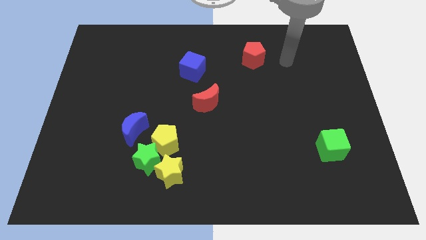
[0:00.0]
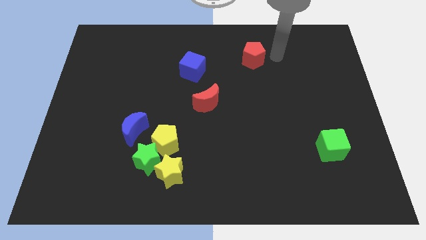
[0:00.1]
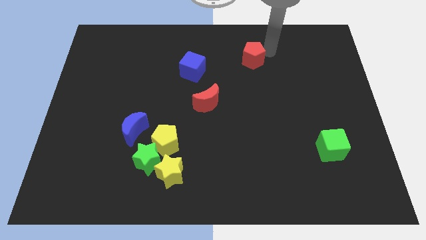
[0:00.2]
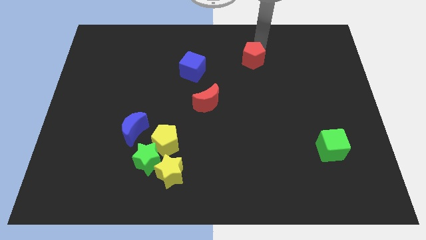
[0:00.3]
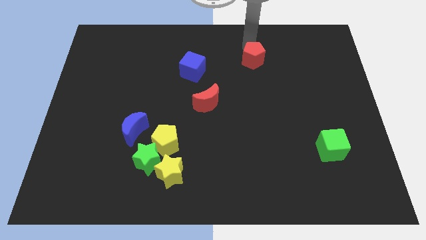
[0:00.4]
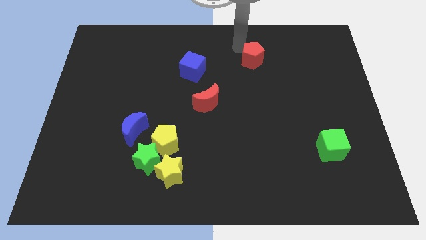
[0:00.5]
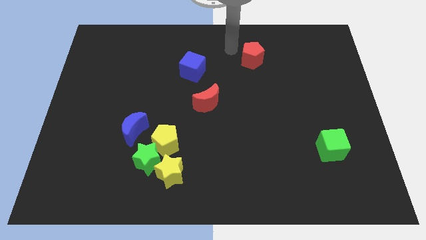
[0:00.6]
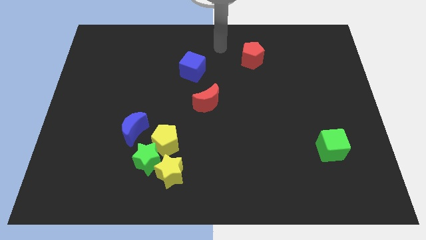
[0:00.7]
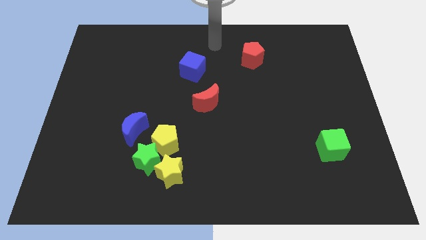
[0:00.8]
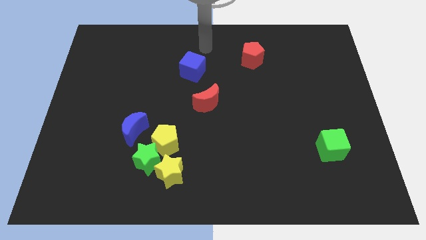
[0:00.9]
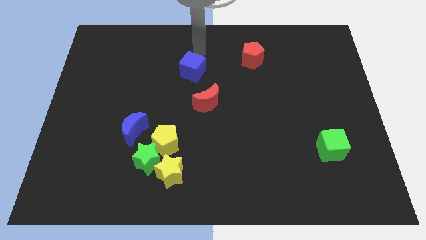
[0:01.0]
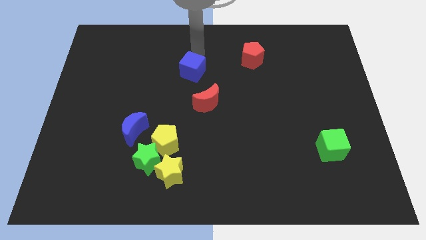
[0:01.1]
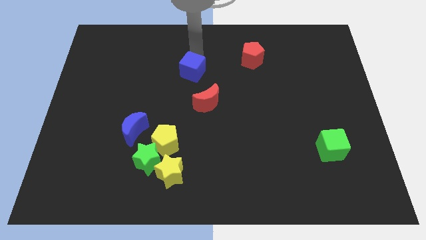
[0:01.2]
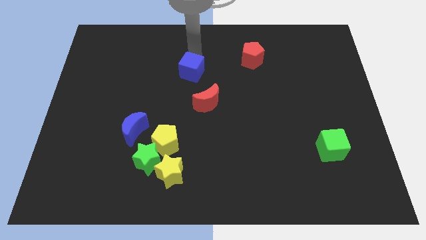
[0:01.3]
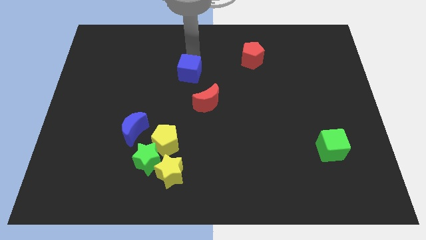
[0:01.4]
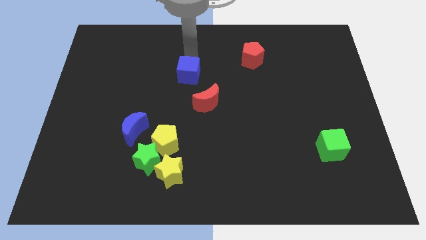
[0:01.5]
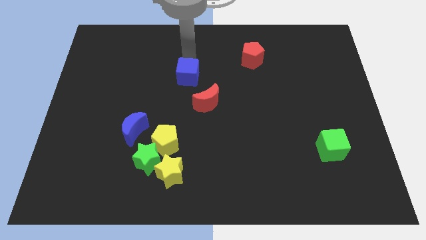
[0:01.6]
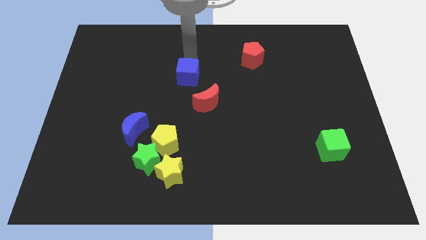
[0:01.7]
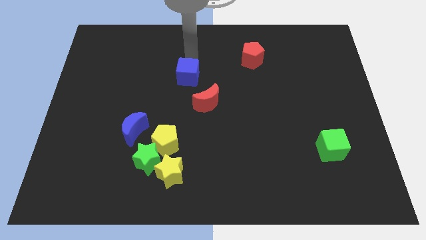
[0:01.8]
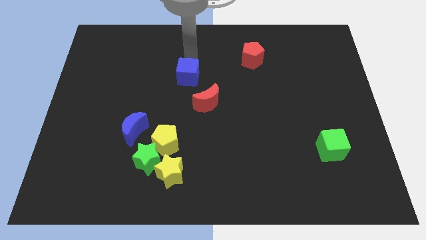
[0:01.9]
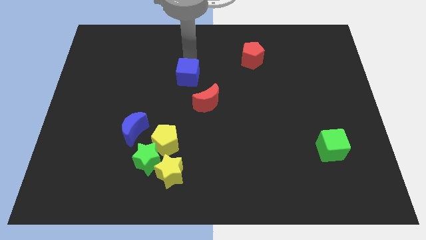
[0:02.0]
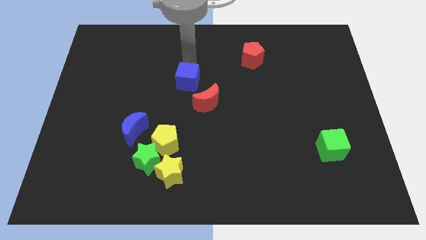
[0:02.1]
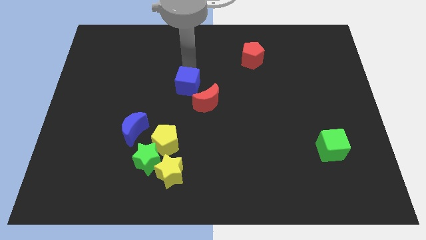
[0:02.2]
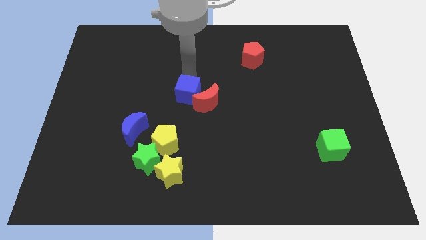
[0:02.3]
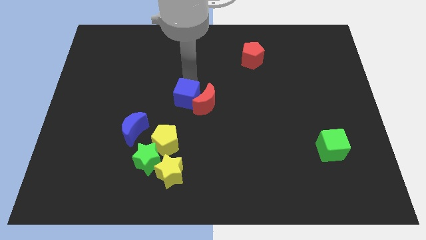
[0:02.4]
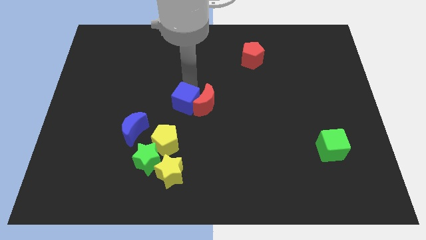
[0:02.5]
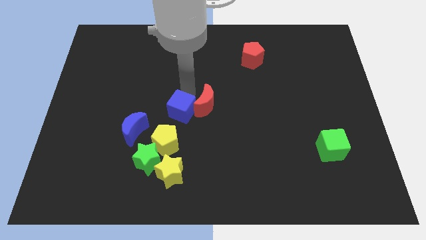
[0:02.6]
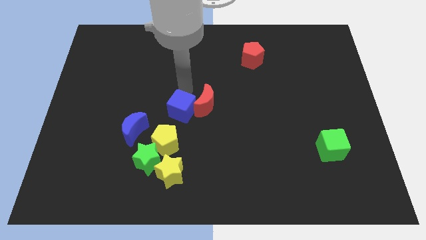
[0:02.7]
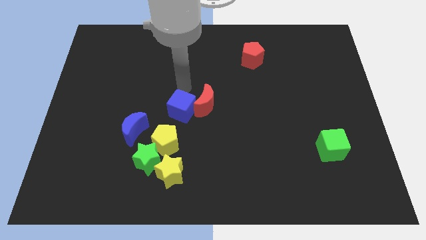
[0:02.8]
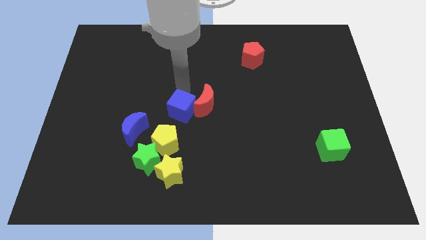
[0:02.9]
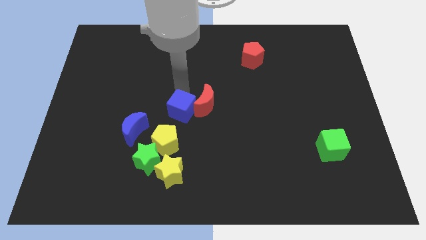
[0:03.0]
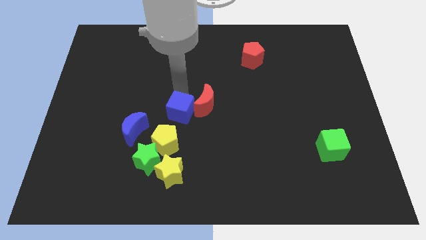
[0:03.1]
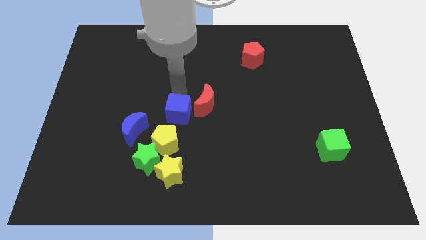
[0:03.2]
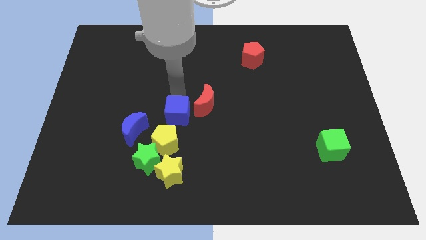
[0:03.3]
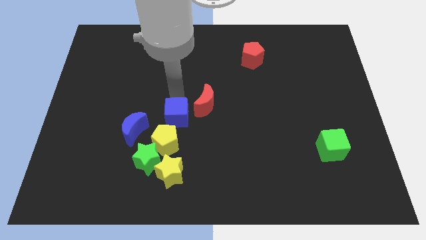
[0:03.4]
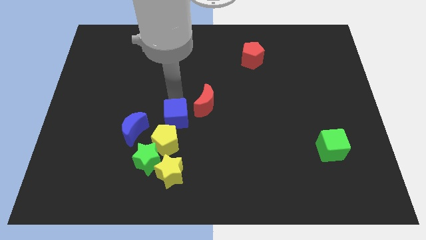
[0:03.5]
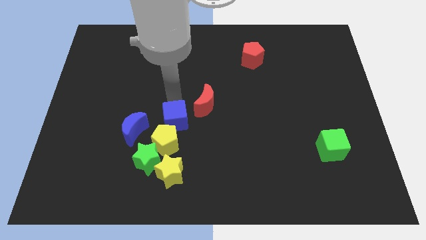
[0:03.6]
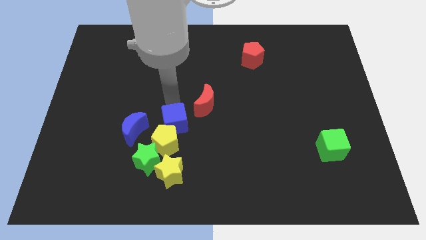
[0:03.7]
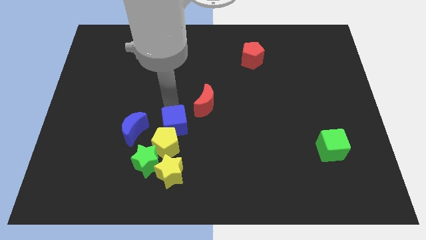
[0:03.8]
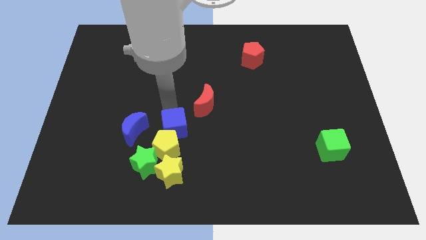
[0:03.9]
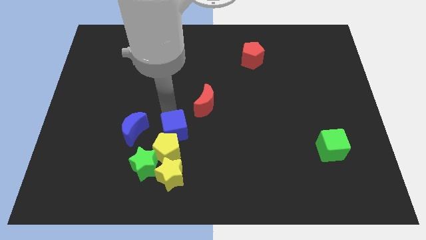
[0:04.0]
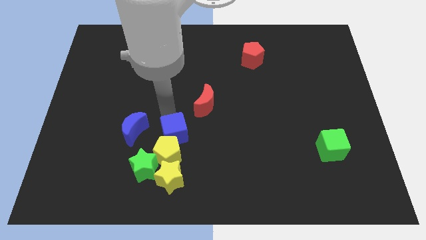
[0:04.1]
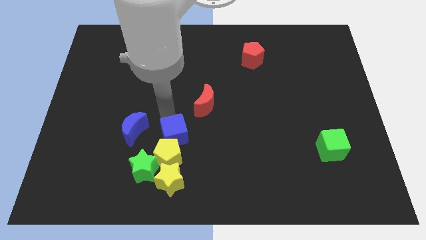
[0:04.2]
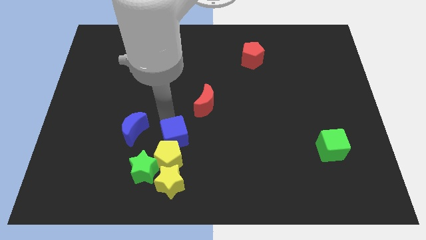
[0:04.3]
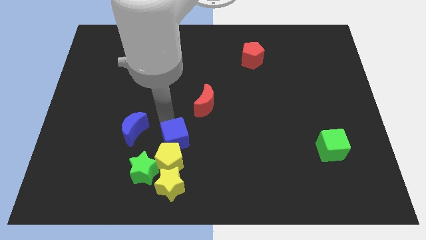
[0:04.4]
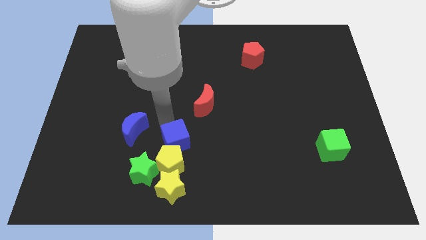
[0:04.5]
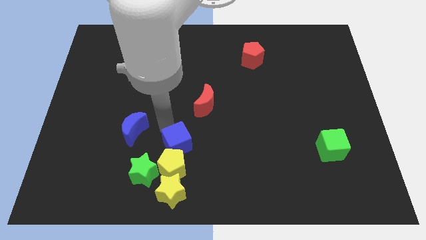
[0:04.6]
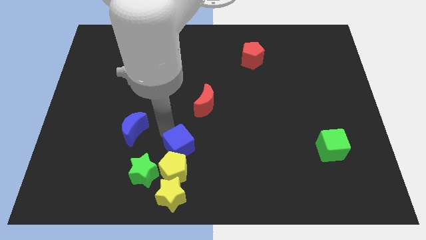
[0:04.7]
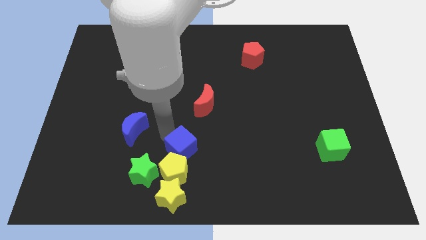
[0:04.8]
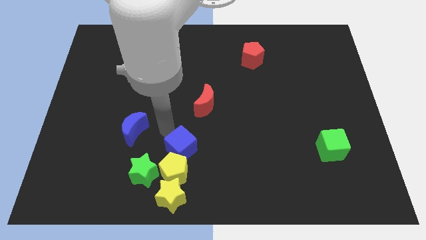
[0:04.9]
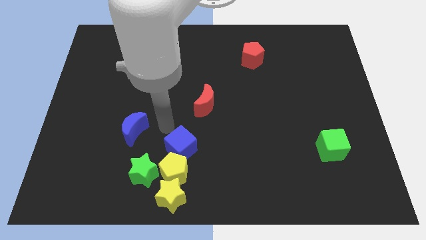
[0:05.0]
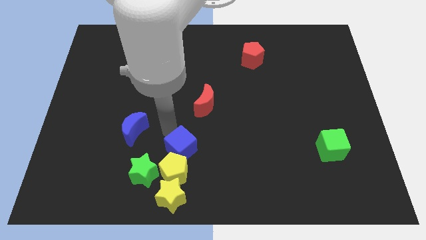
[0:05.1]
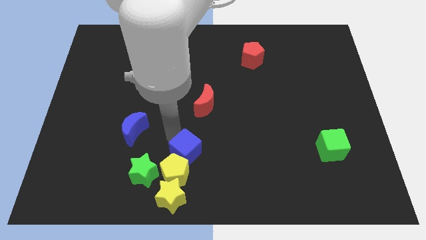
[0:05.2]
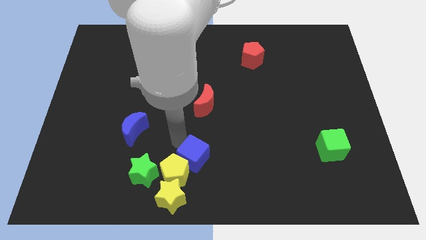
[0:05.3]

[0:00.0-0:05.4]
move the blue cube to the bottom

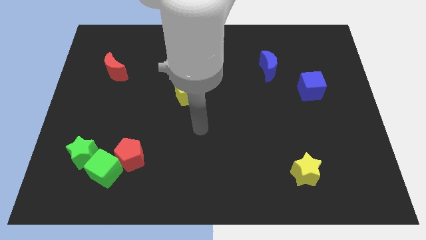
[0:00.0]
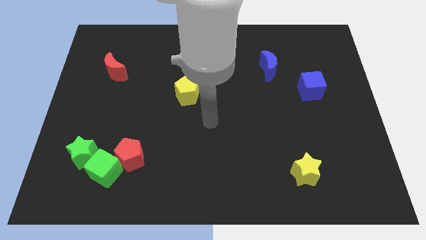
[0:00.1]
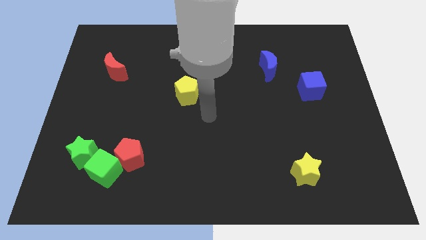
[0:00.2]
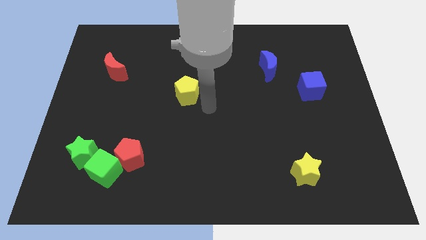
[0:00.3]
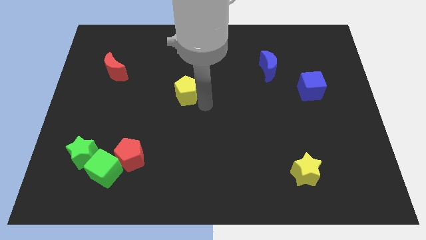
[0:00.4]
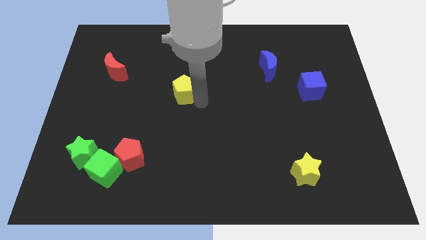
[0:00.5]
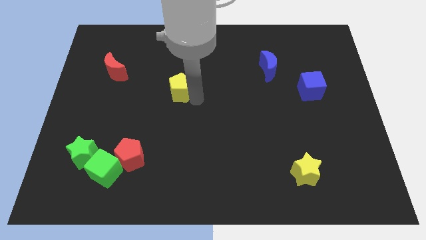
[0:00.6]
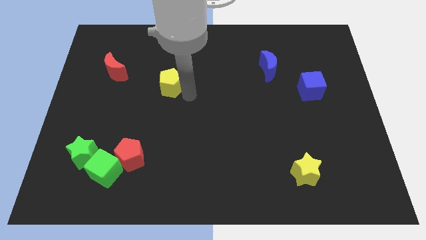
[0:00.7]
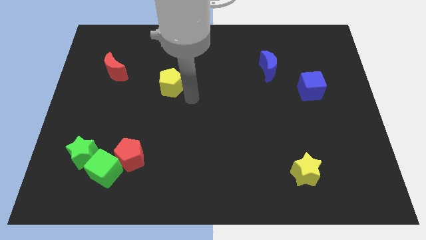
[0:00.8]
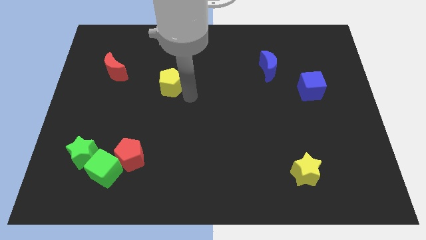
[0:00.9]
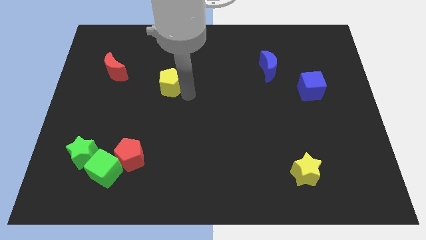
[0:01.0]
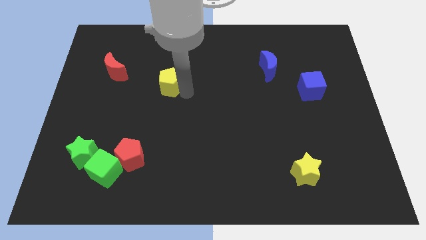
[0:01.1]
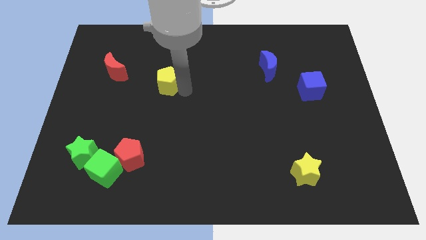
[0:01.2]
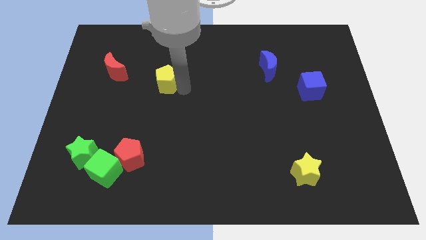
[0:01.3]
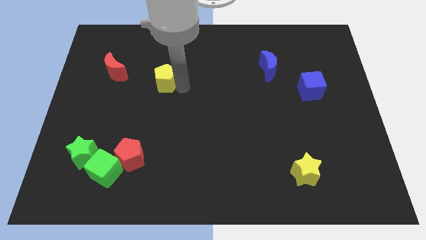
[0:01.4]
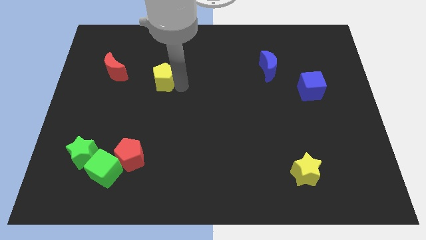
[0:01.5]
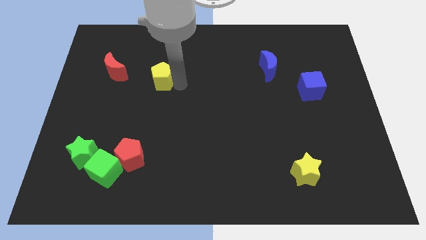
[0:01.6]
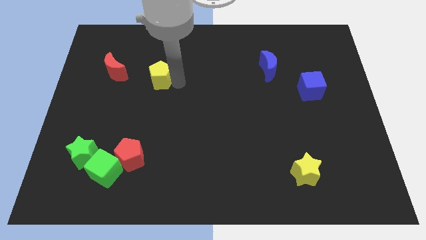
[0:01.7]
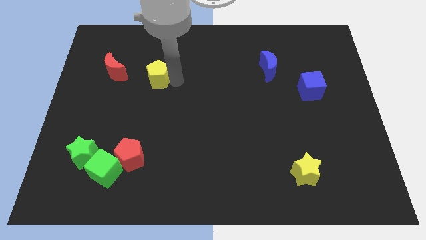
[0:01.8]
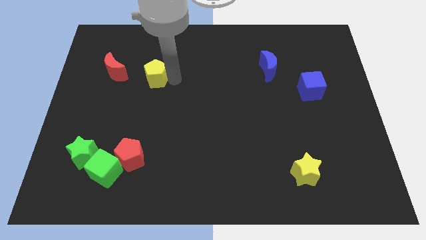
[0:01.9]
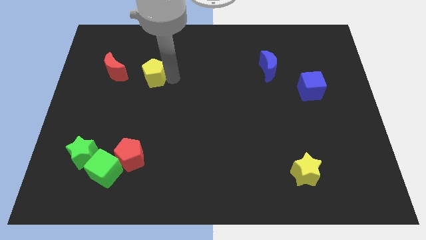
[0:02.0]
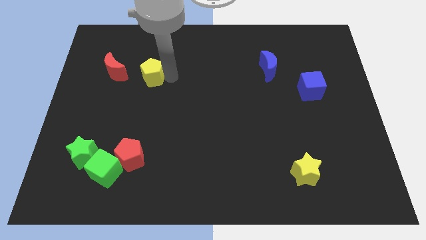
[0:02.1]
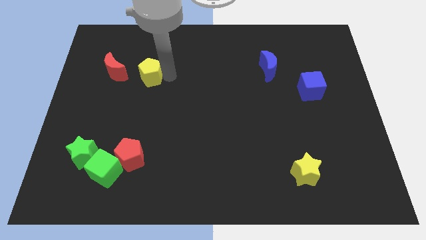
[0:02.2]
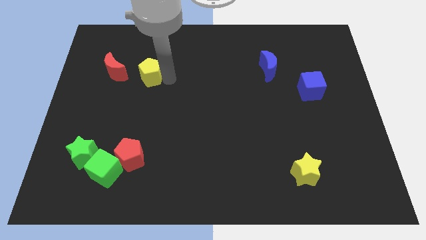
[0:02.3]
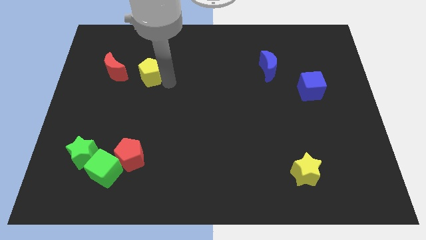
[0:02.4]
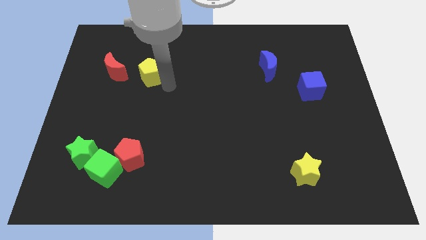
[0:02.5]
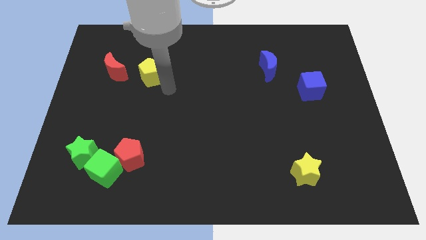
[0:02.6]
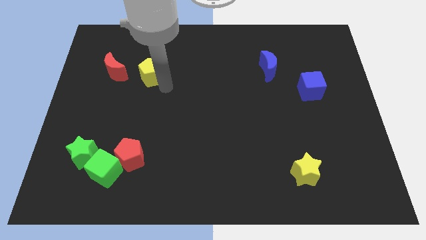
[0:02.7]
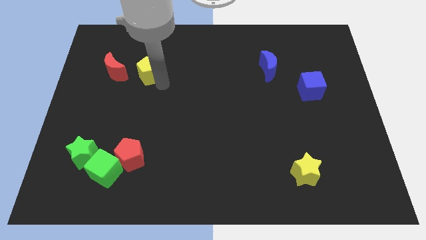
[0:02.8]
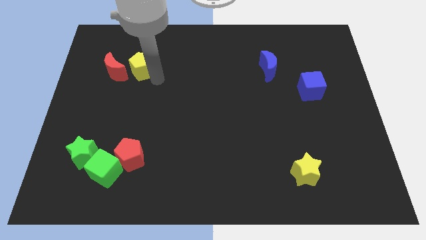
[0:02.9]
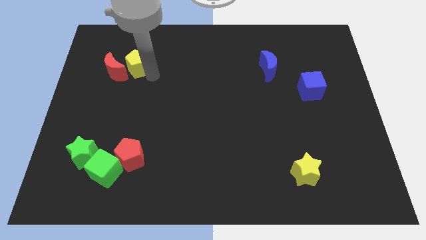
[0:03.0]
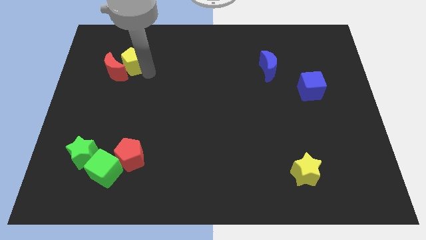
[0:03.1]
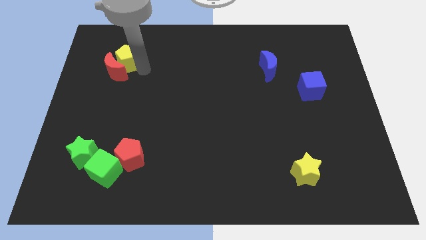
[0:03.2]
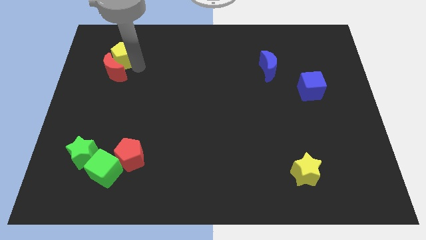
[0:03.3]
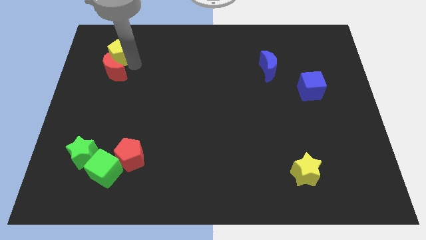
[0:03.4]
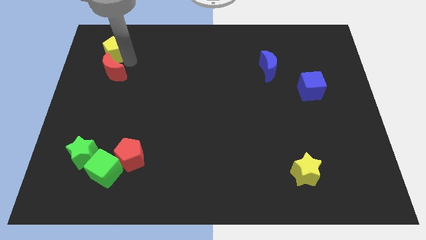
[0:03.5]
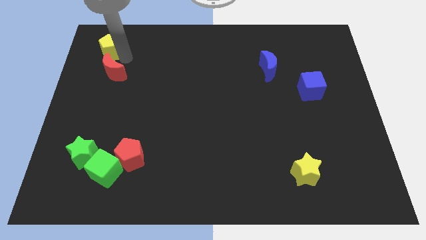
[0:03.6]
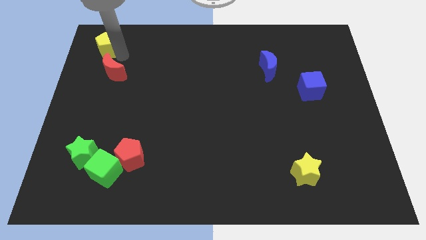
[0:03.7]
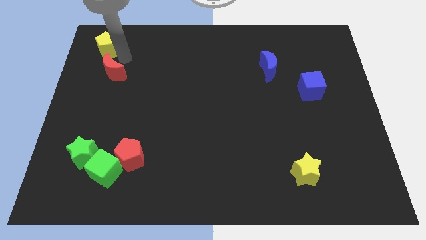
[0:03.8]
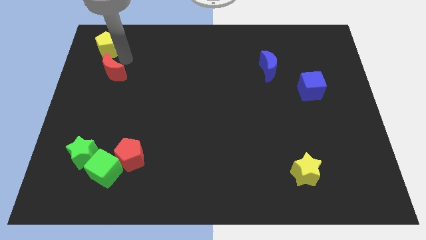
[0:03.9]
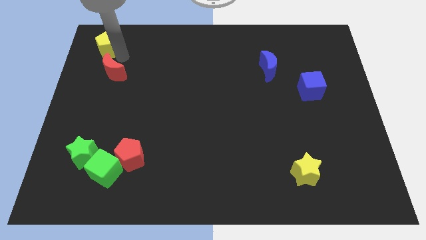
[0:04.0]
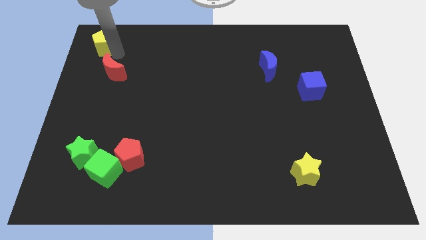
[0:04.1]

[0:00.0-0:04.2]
move the yellow pentagon to the top left
